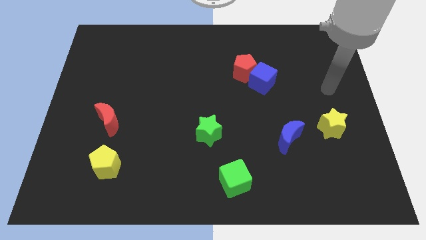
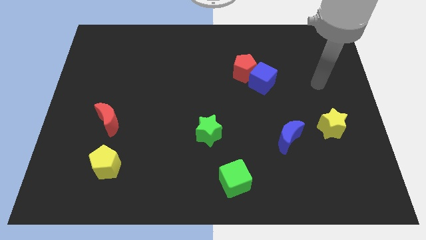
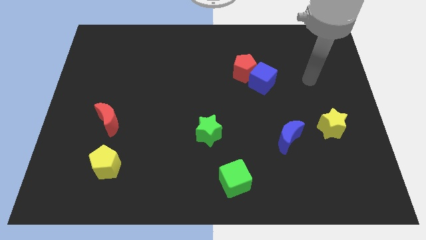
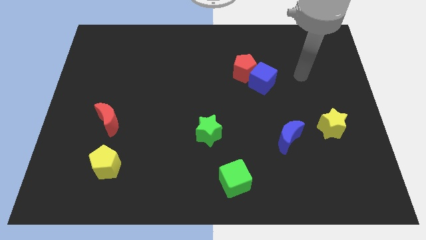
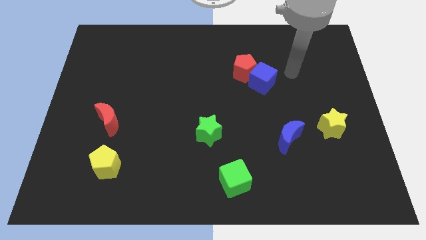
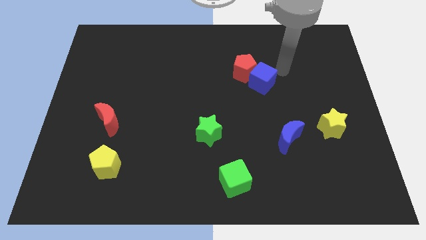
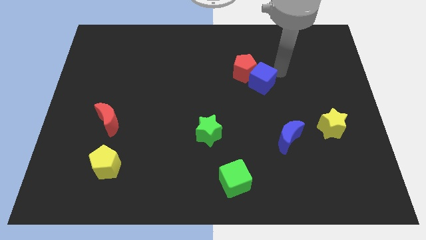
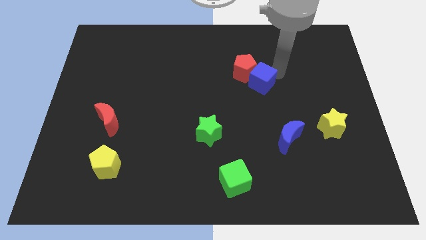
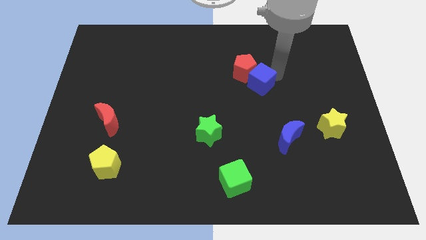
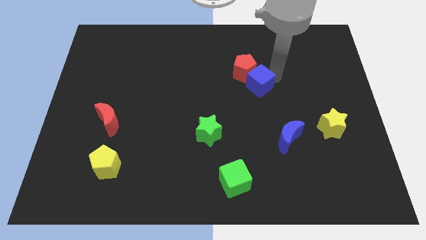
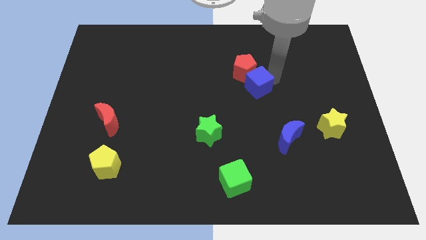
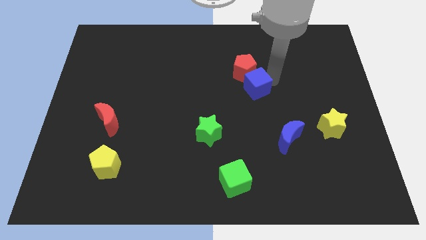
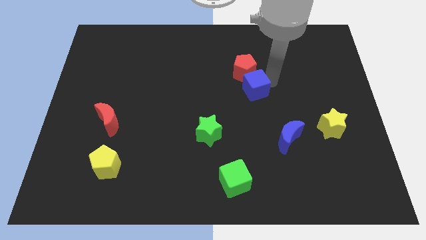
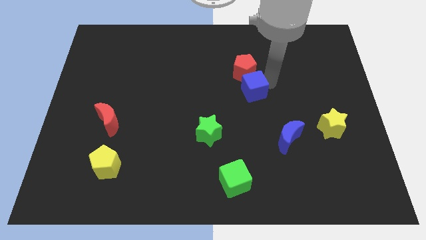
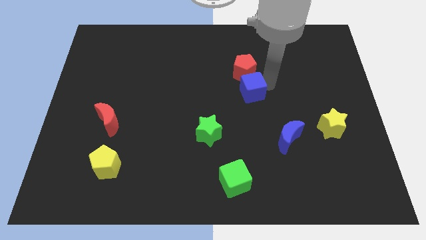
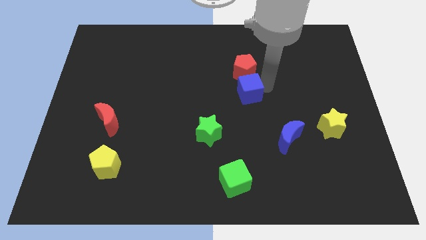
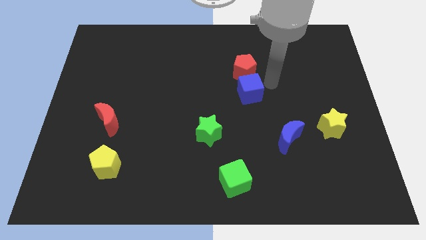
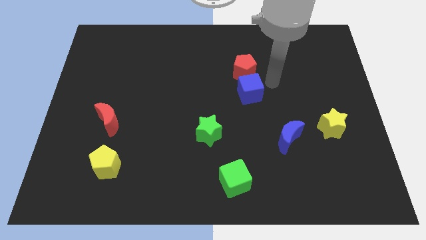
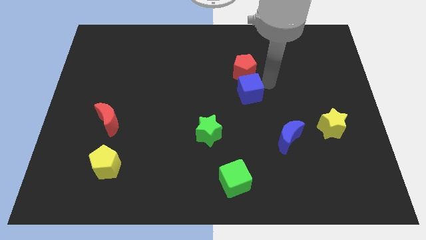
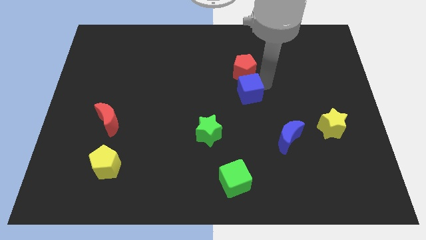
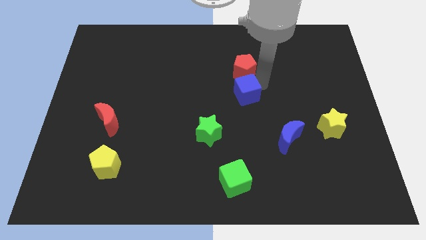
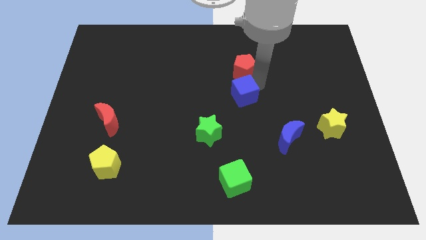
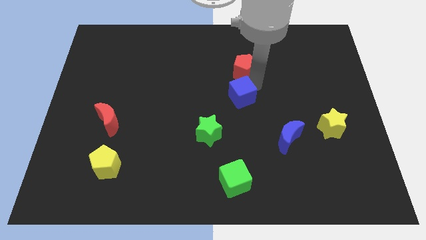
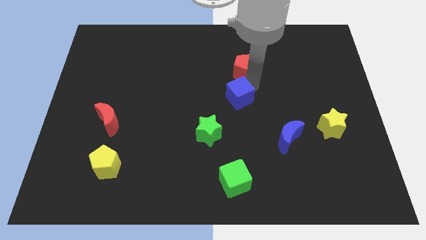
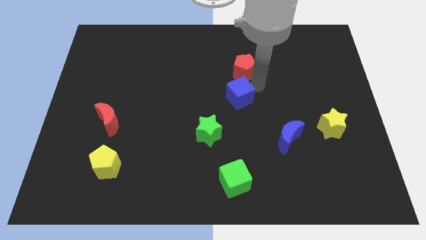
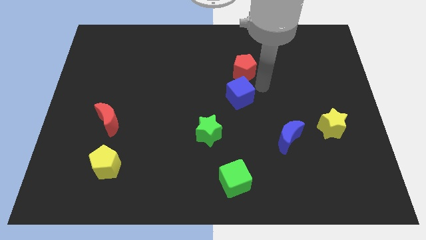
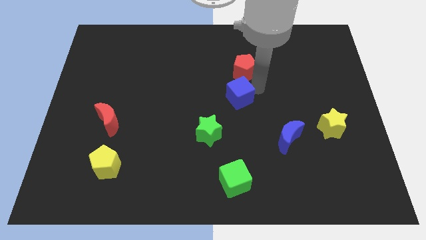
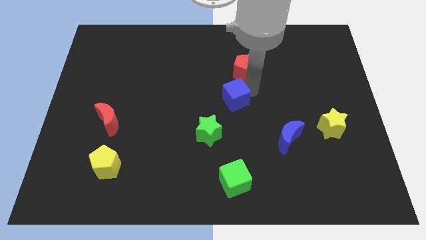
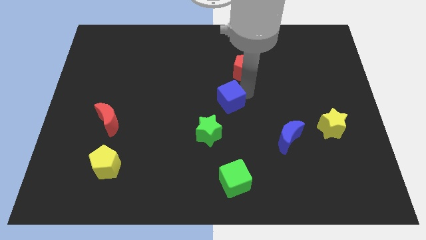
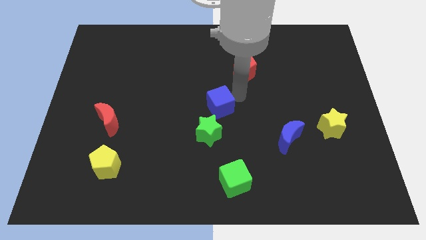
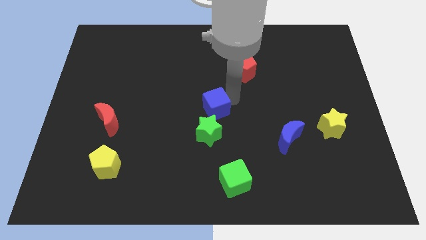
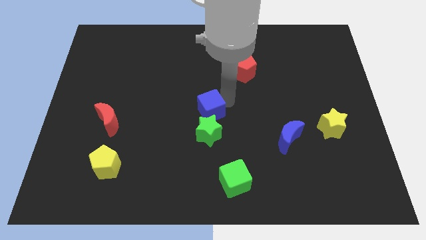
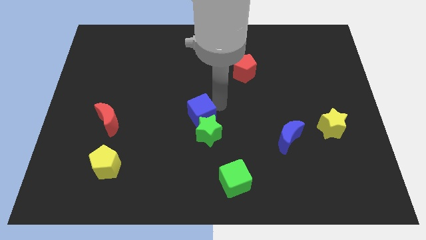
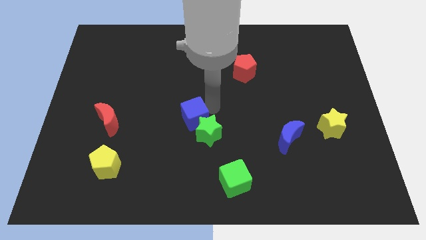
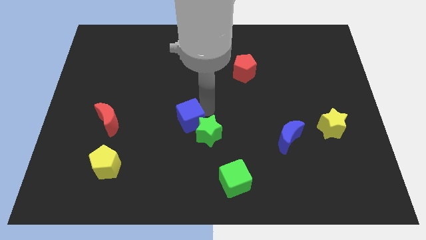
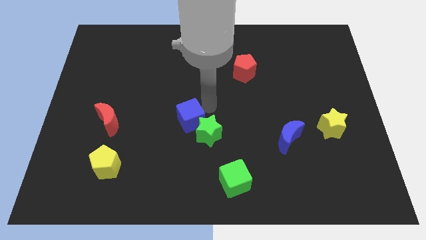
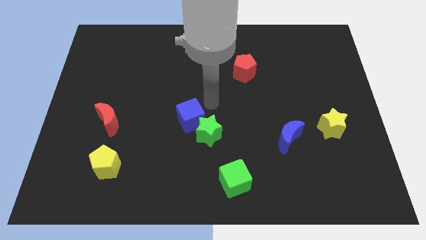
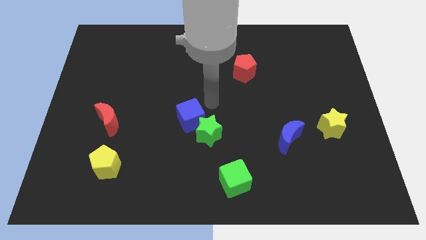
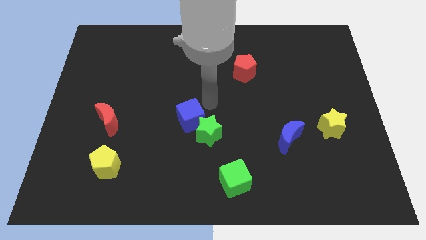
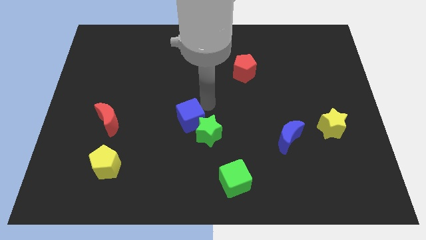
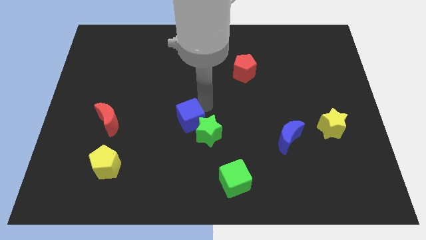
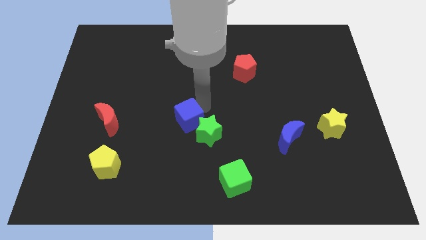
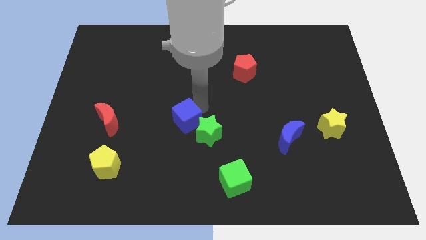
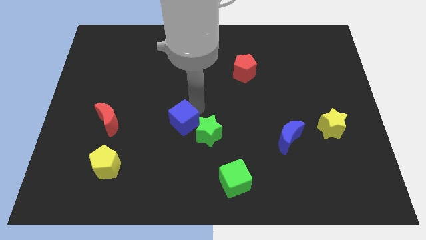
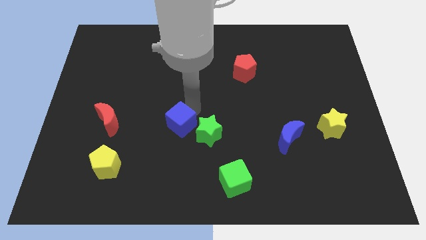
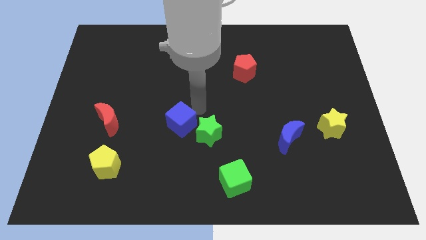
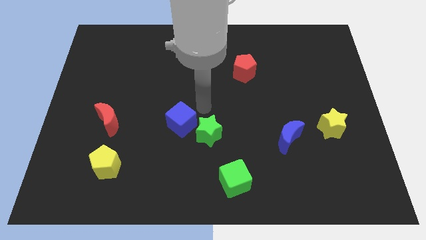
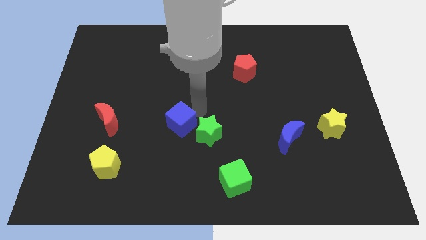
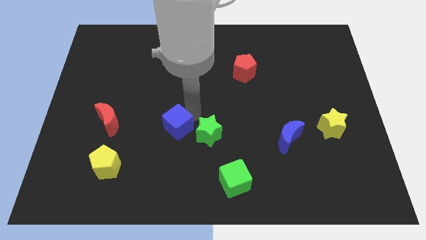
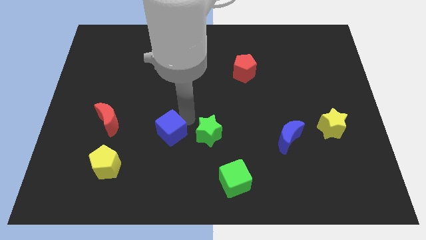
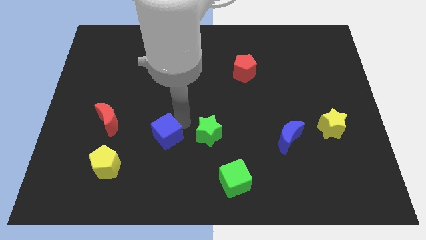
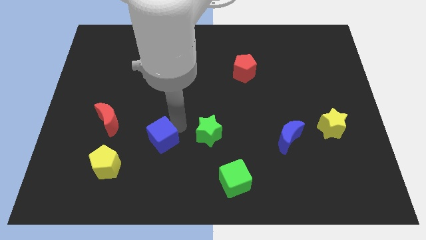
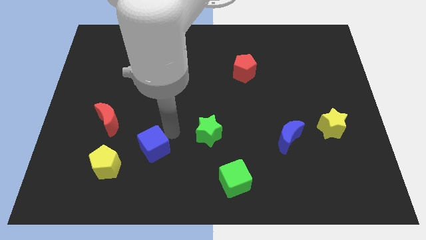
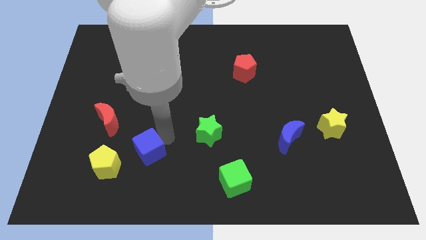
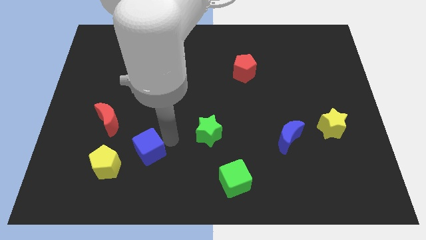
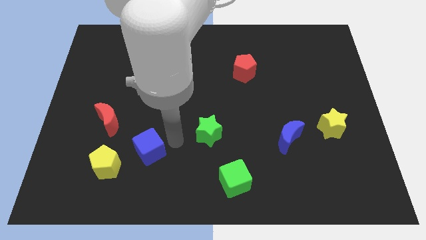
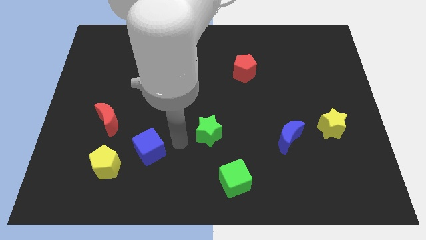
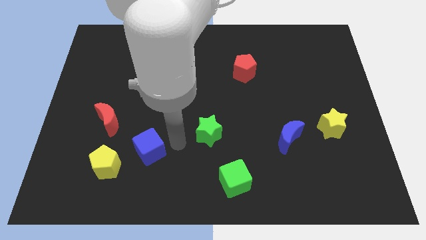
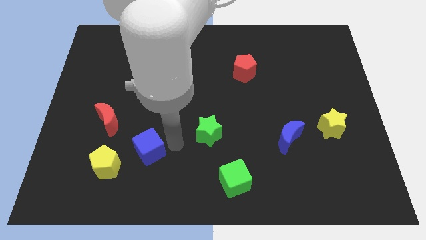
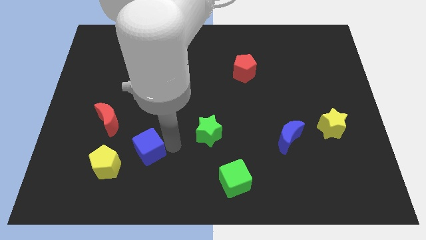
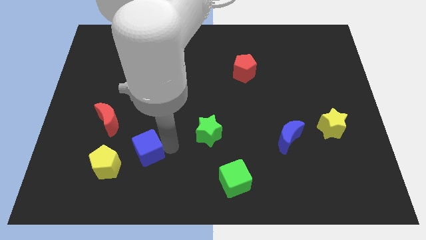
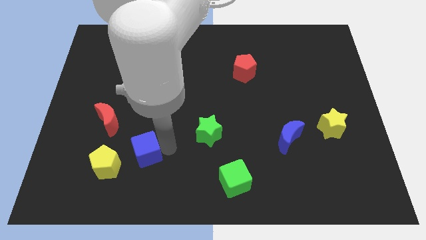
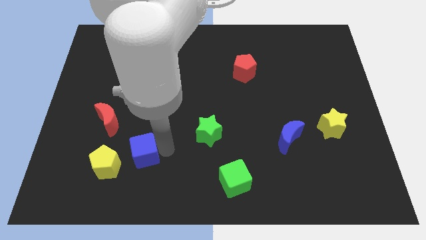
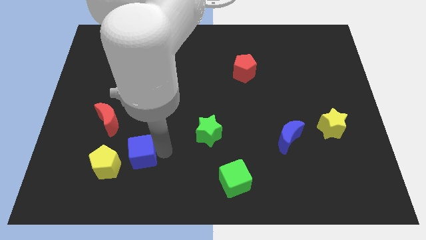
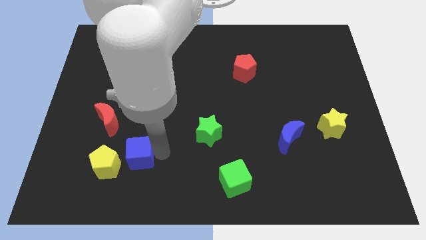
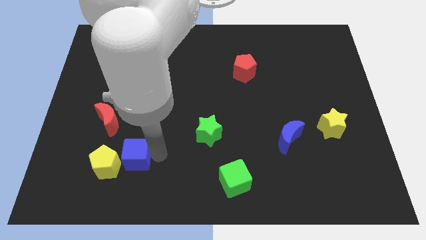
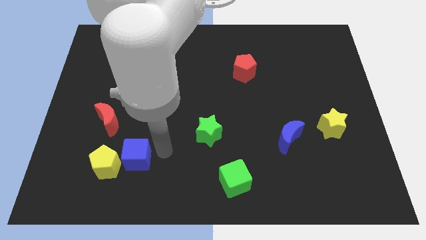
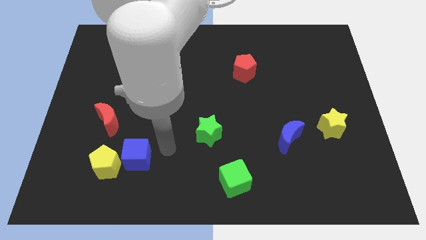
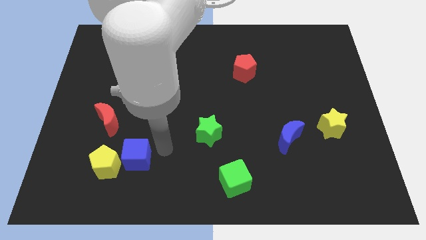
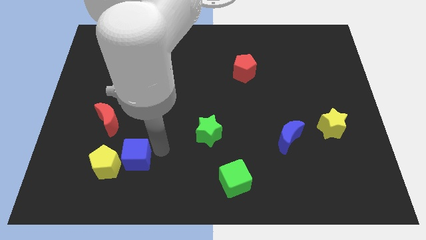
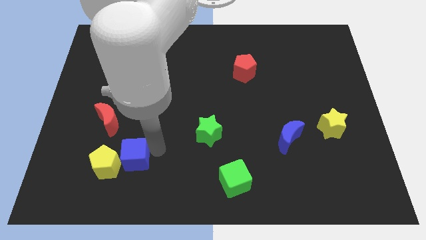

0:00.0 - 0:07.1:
push the blue cube next to the yellow pentagon

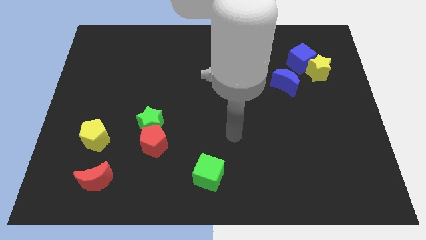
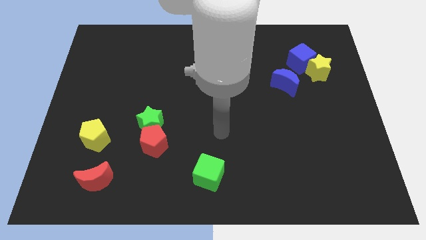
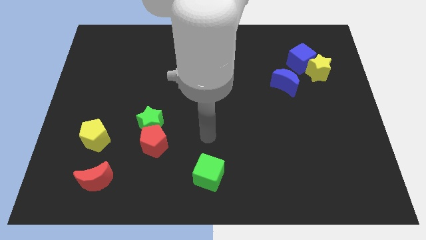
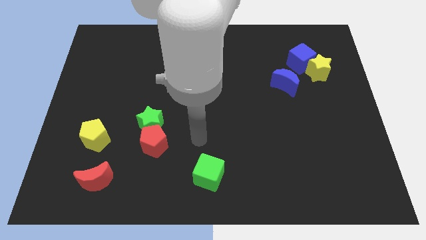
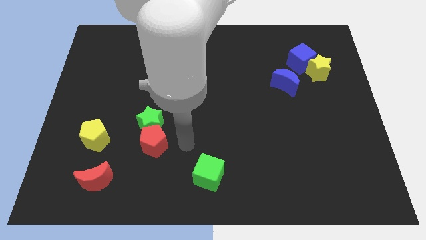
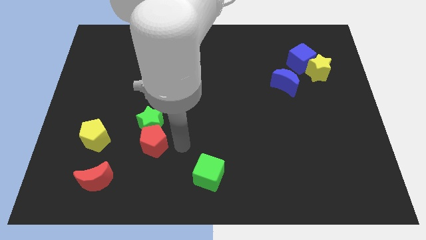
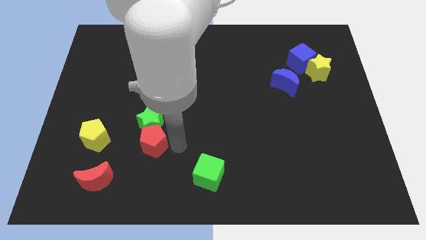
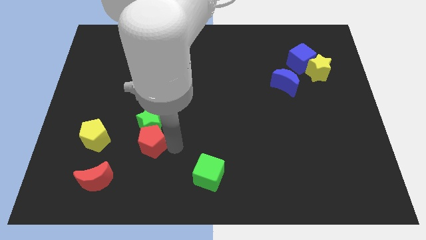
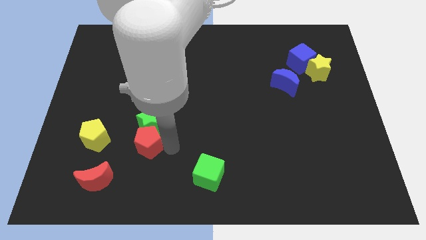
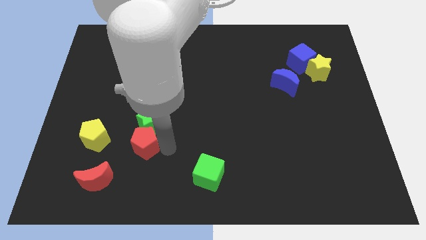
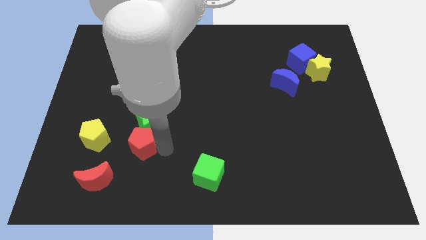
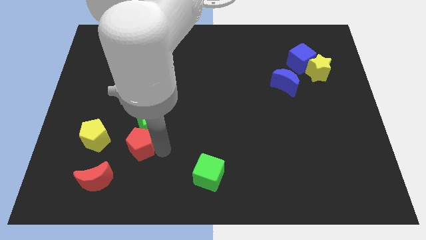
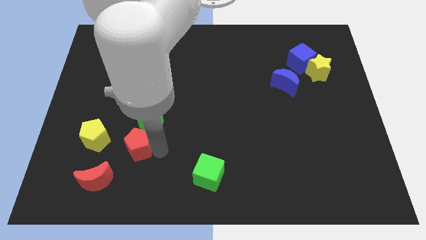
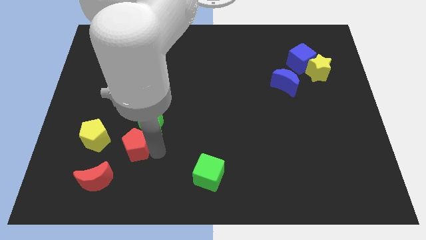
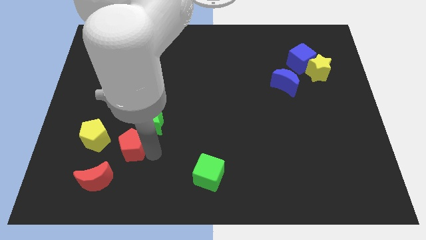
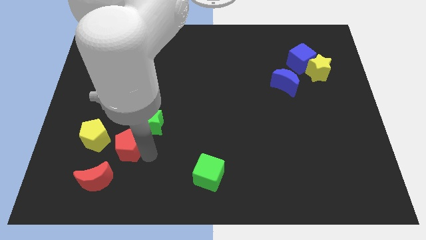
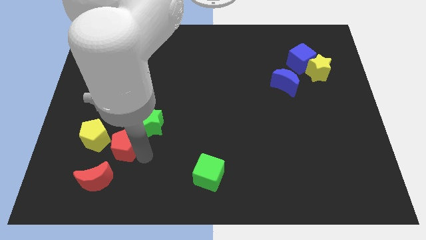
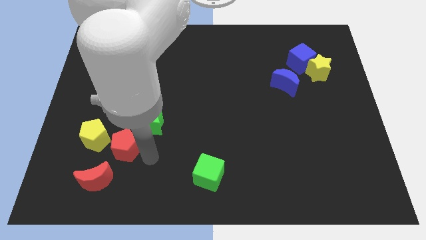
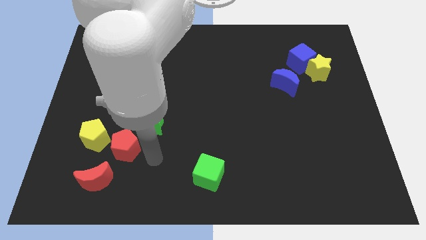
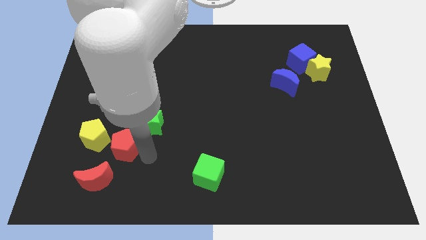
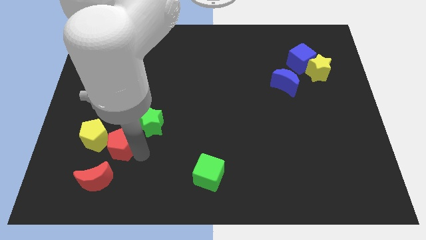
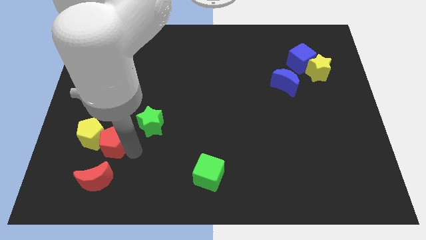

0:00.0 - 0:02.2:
slide the red pentagon close to the yellow pentagon
